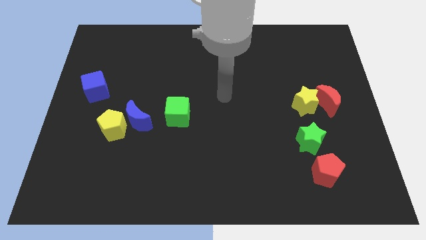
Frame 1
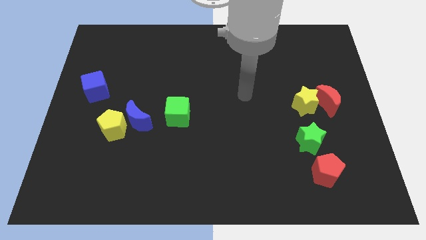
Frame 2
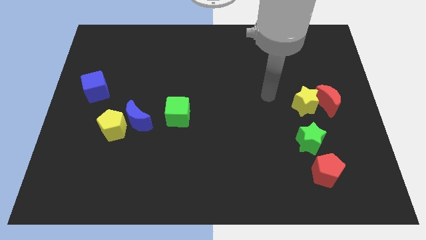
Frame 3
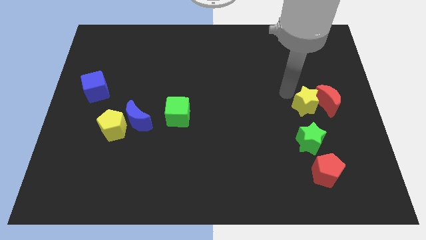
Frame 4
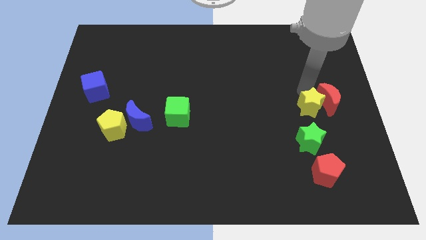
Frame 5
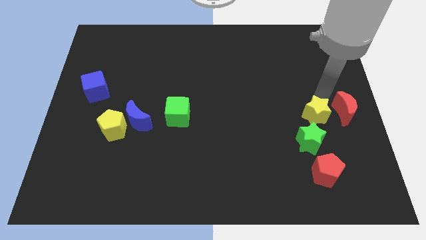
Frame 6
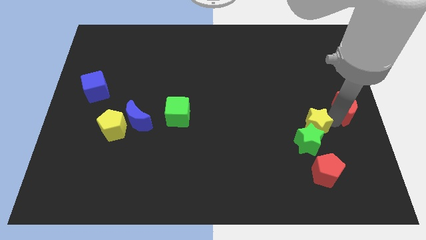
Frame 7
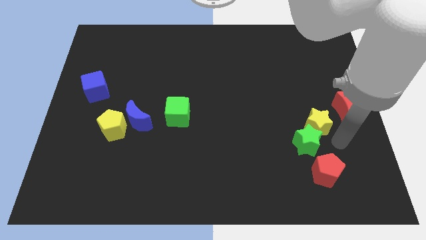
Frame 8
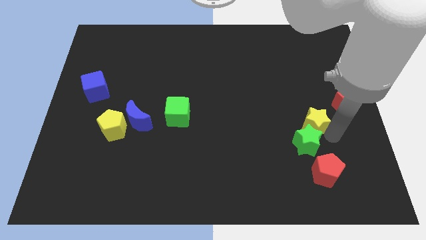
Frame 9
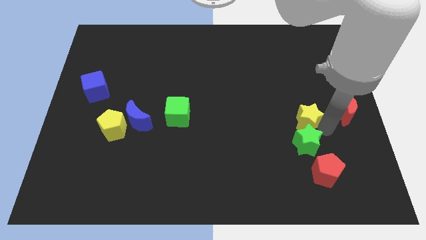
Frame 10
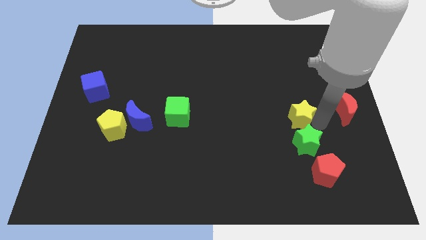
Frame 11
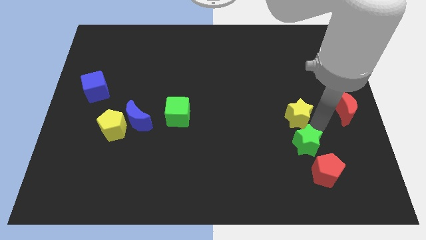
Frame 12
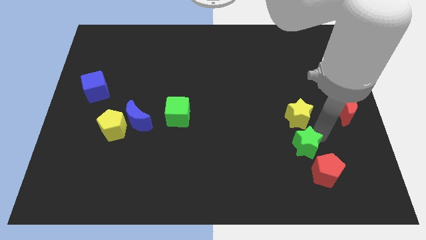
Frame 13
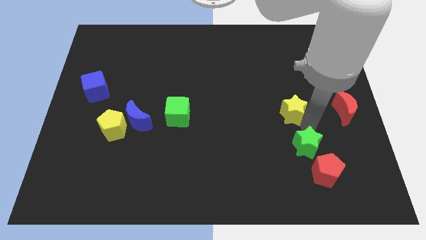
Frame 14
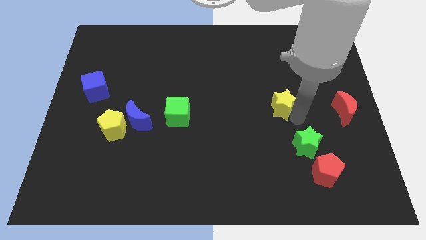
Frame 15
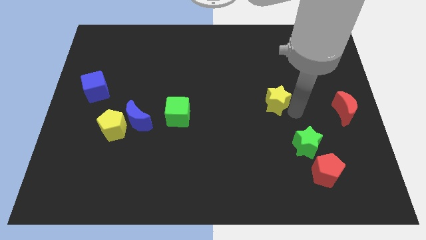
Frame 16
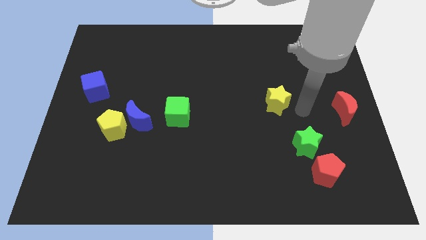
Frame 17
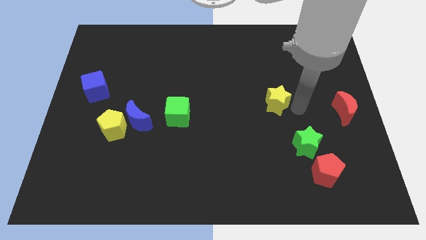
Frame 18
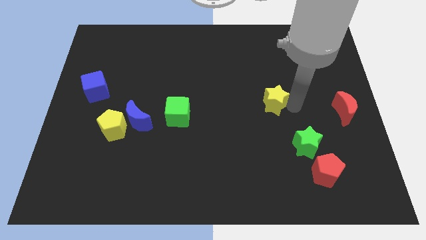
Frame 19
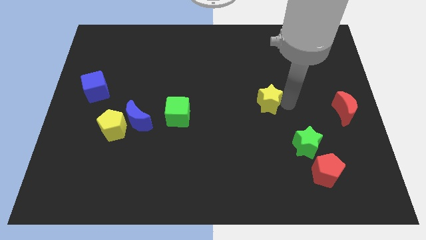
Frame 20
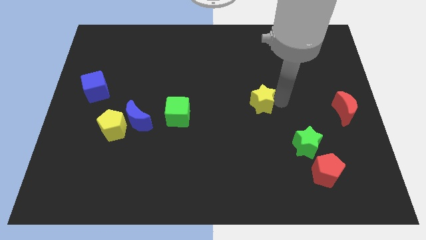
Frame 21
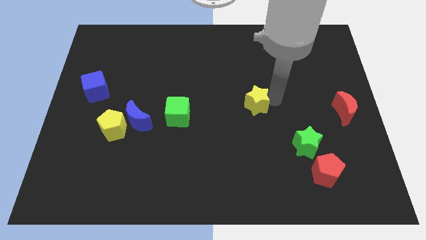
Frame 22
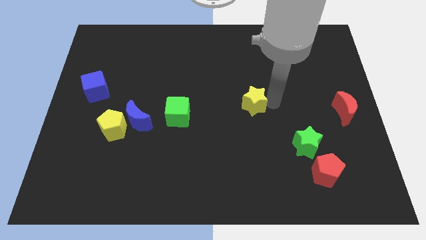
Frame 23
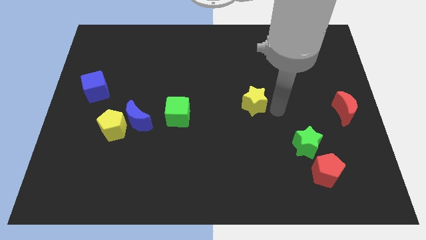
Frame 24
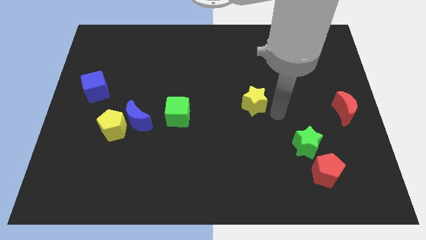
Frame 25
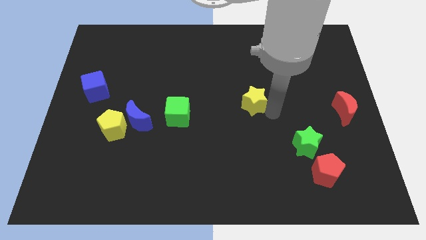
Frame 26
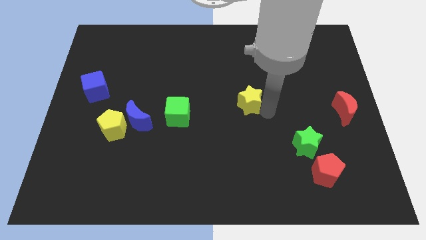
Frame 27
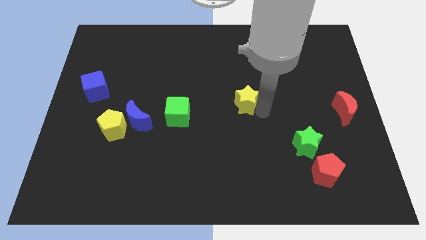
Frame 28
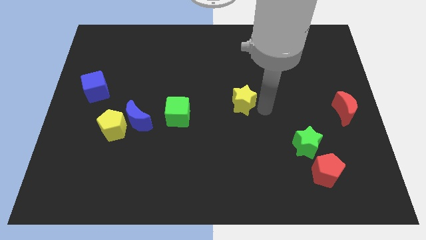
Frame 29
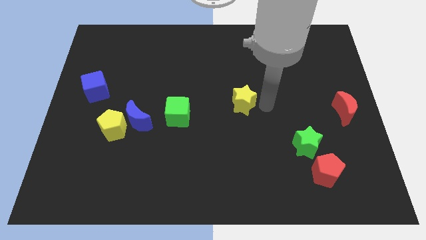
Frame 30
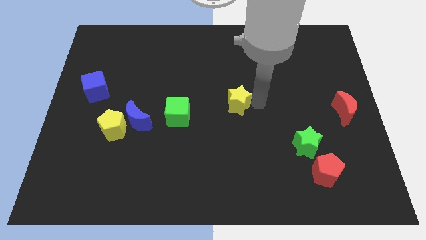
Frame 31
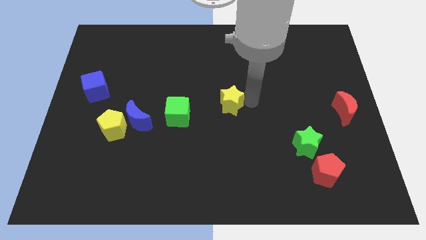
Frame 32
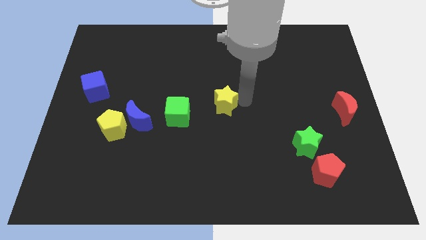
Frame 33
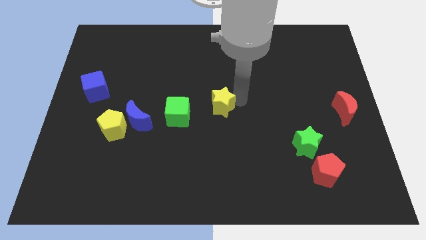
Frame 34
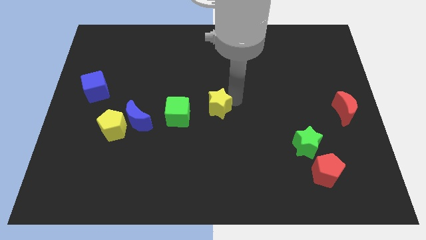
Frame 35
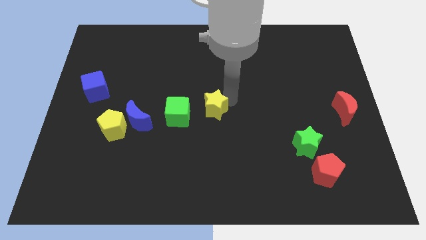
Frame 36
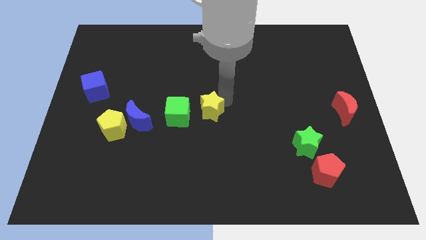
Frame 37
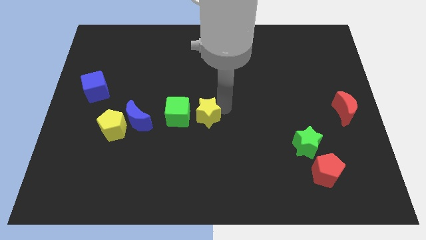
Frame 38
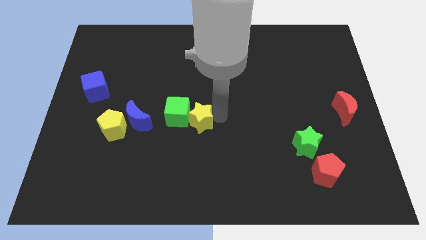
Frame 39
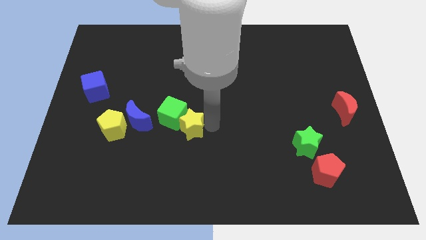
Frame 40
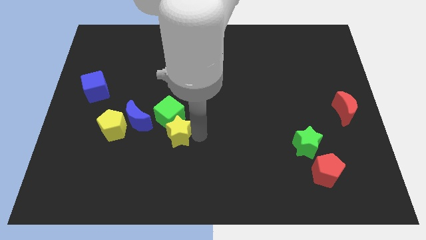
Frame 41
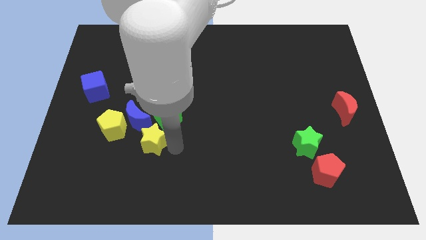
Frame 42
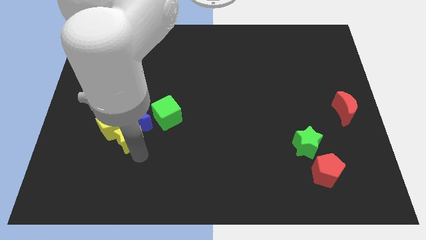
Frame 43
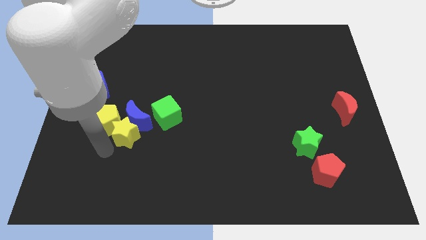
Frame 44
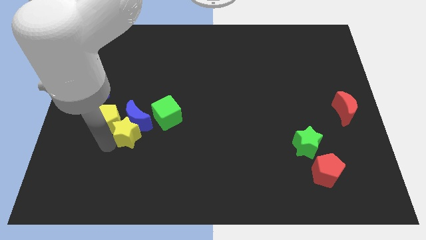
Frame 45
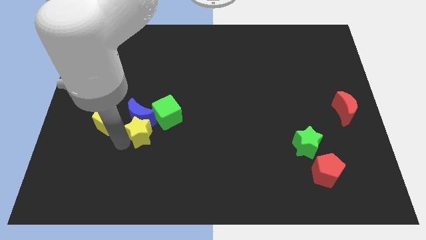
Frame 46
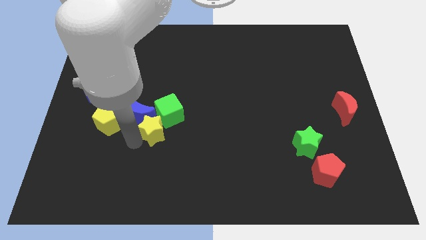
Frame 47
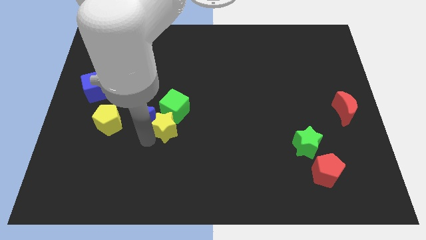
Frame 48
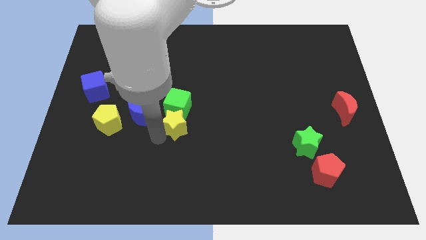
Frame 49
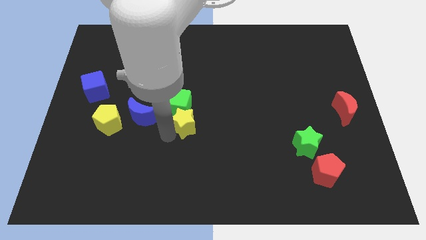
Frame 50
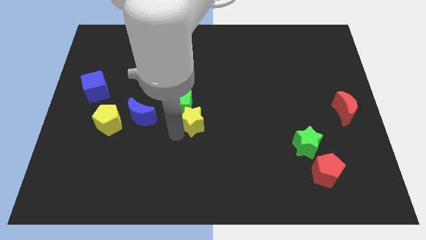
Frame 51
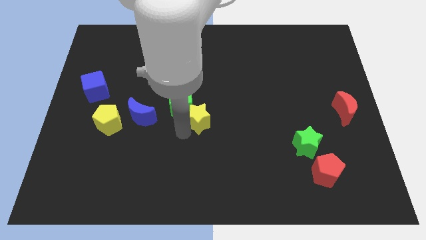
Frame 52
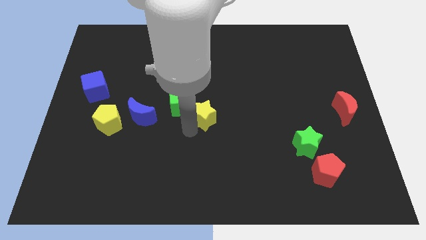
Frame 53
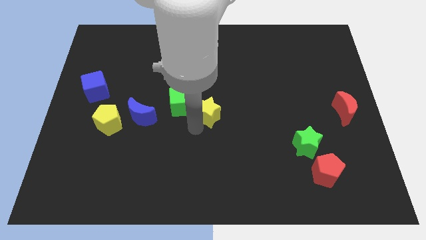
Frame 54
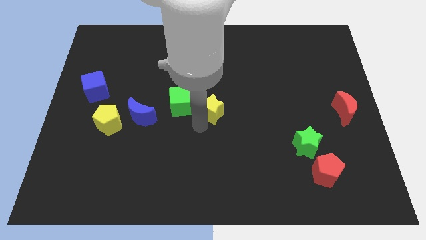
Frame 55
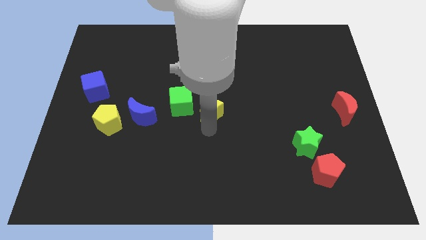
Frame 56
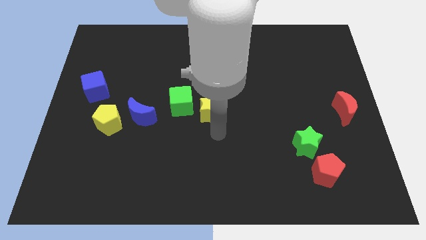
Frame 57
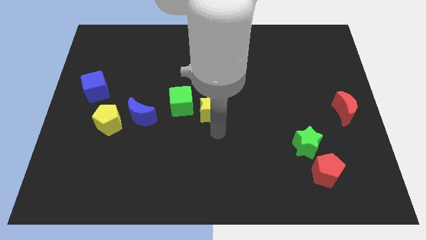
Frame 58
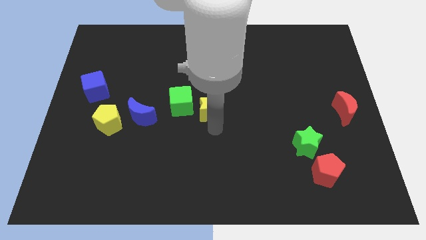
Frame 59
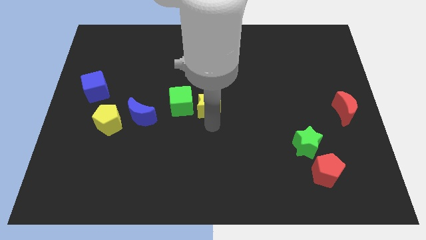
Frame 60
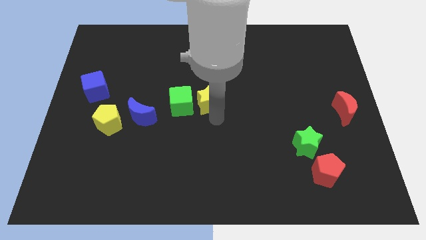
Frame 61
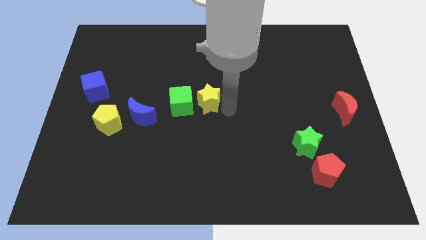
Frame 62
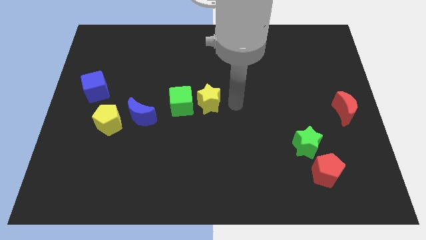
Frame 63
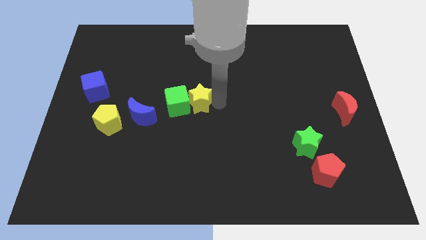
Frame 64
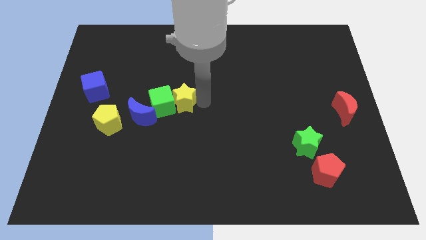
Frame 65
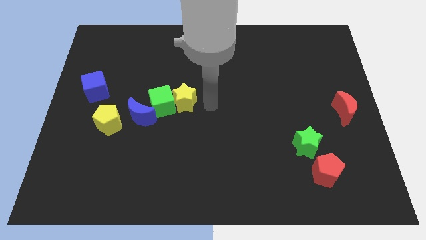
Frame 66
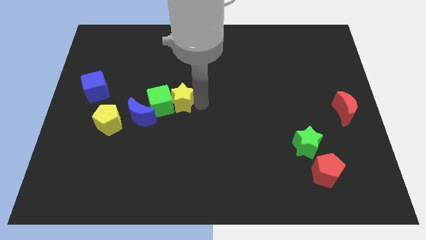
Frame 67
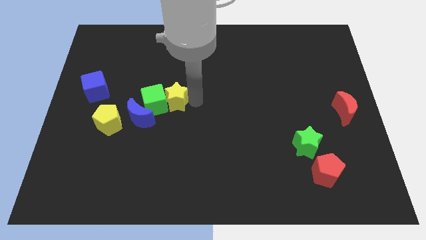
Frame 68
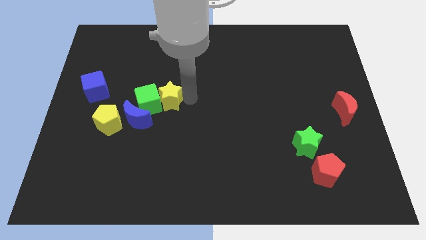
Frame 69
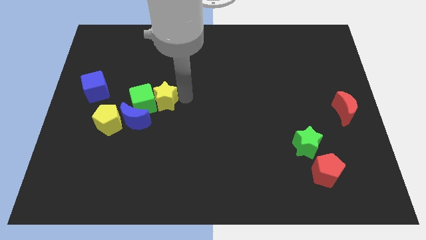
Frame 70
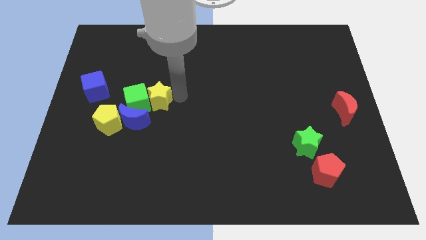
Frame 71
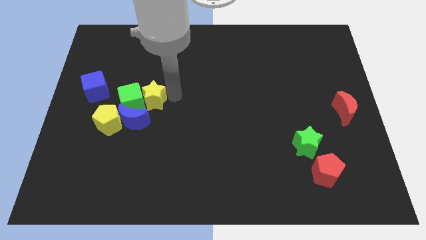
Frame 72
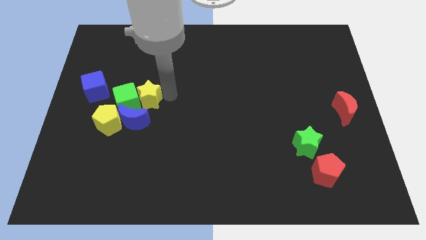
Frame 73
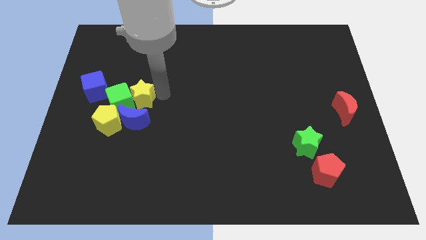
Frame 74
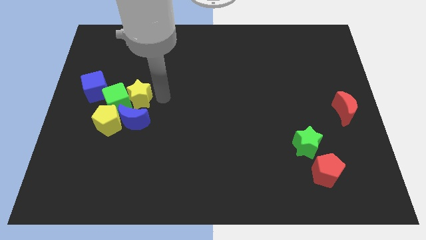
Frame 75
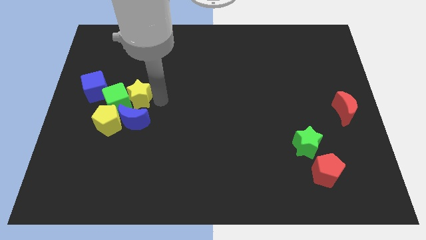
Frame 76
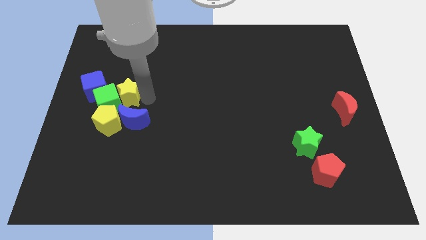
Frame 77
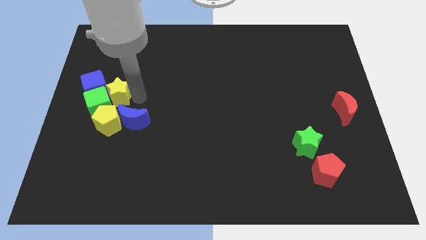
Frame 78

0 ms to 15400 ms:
slide the yellow star close to the blue cube
